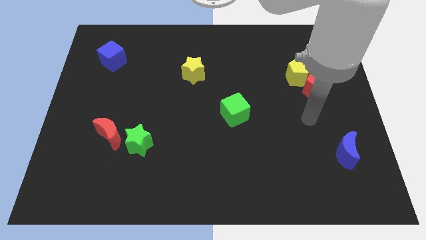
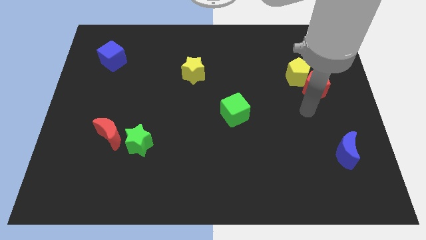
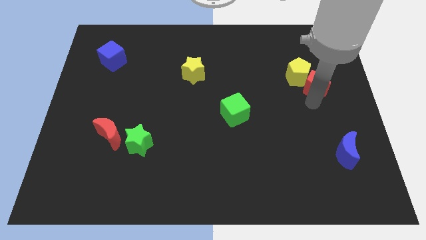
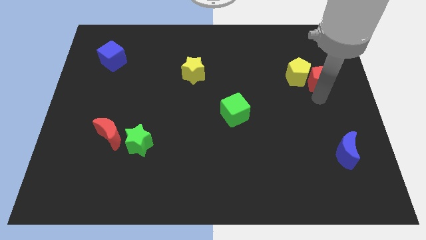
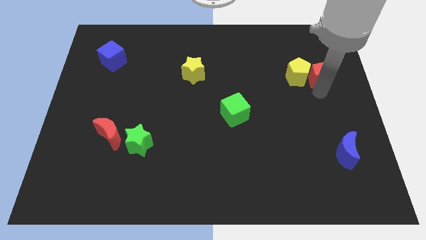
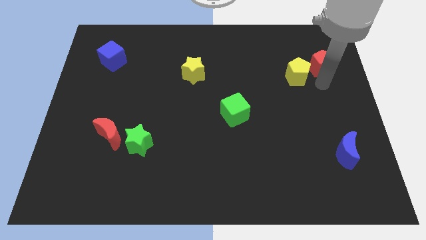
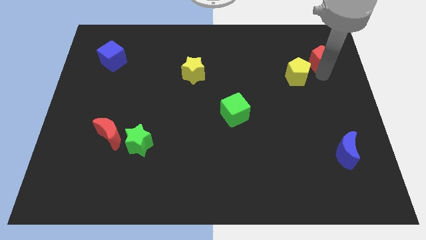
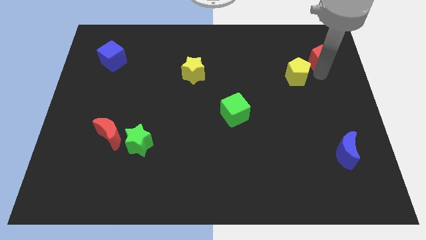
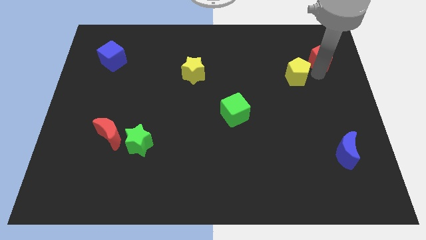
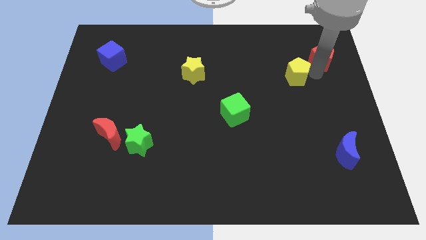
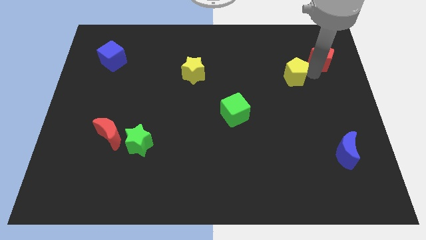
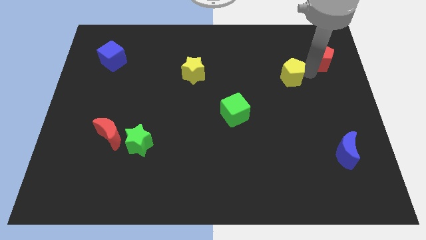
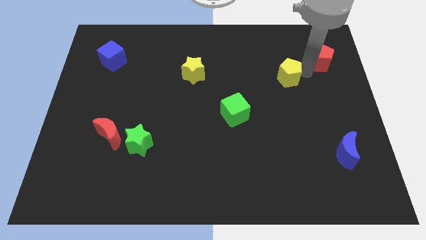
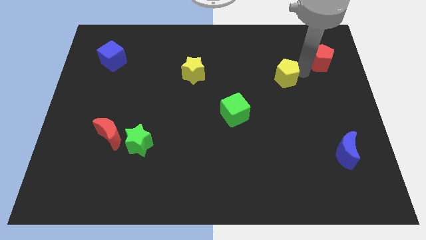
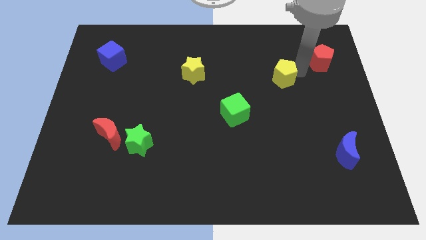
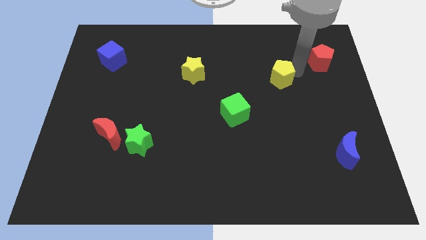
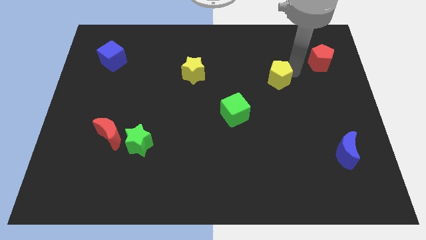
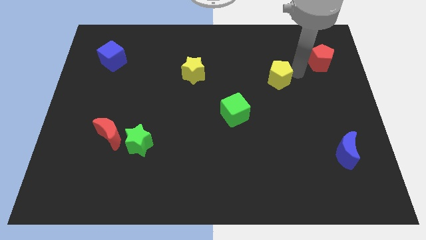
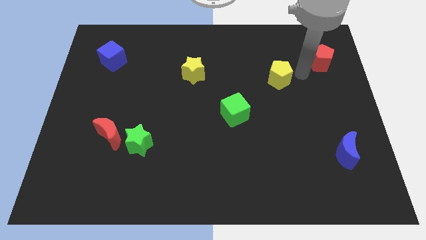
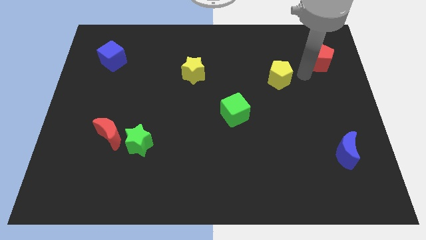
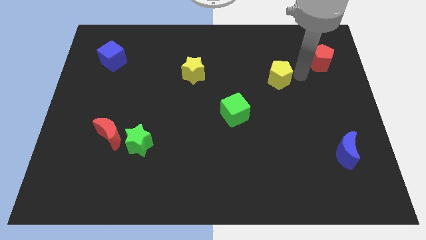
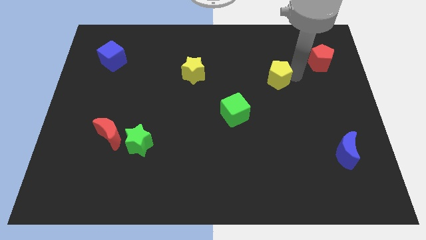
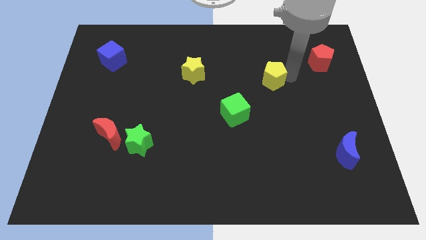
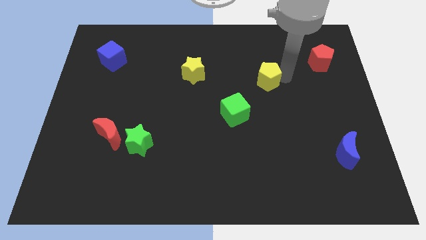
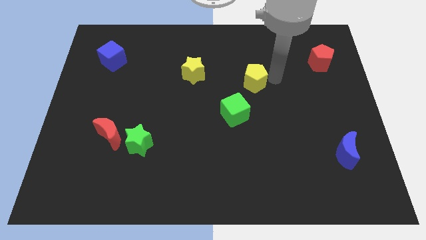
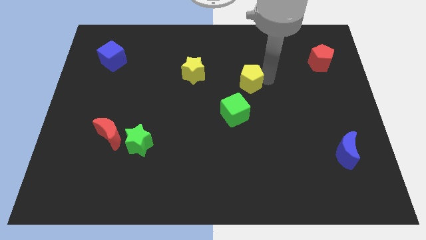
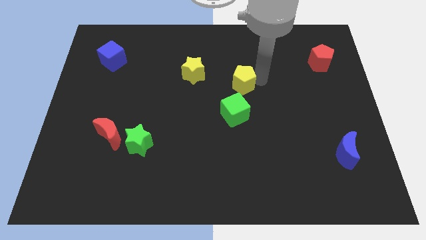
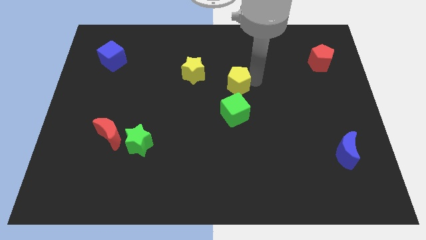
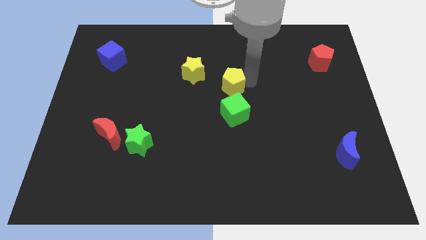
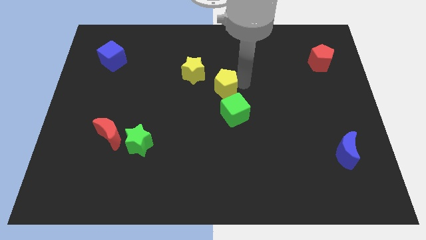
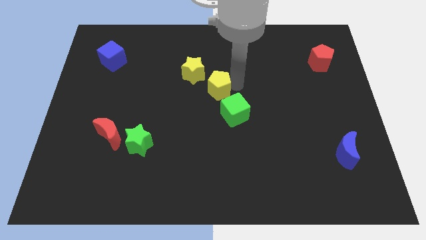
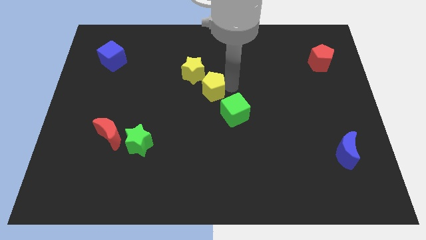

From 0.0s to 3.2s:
push the yellow pentagon left

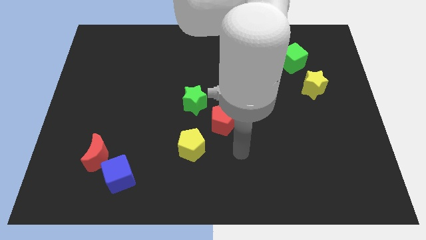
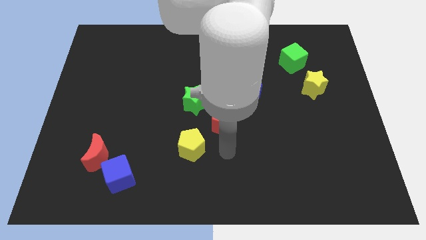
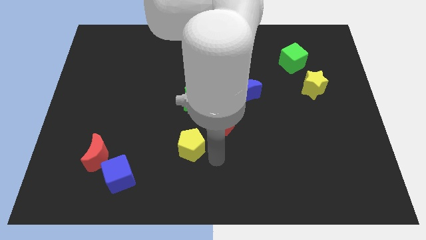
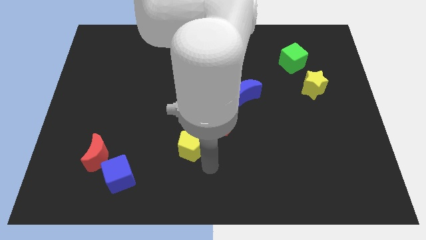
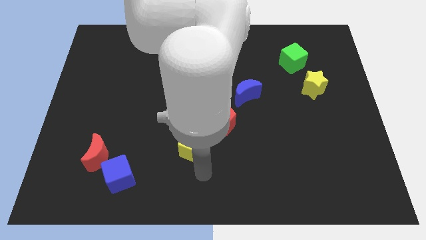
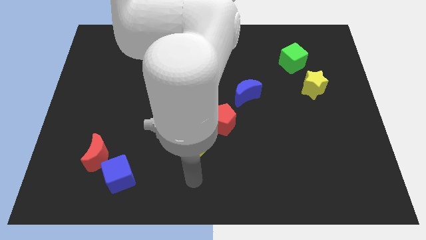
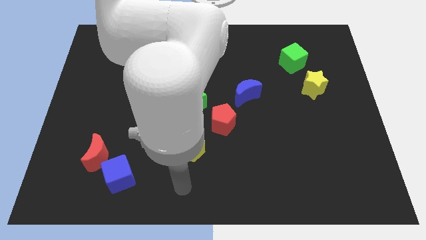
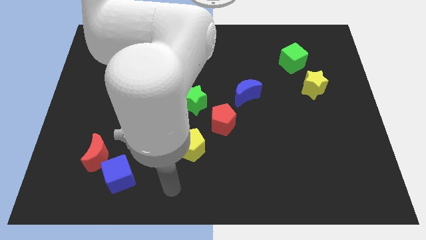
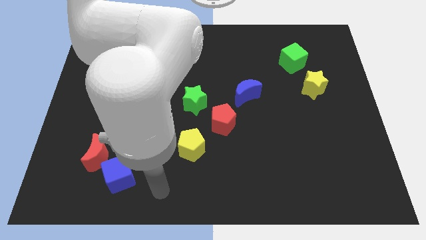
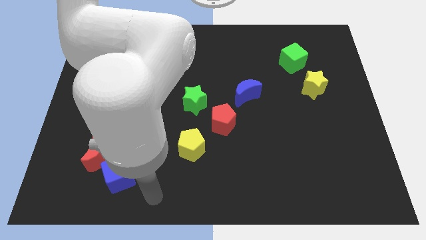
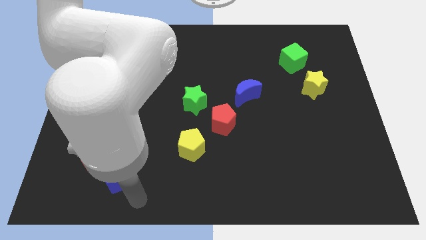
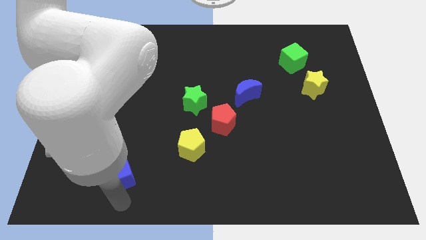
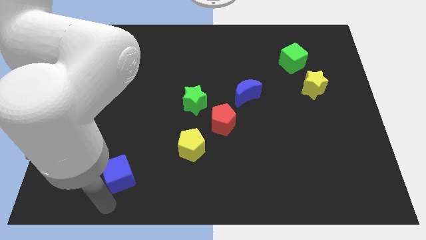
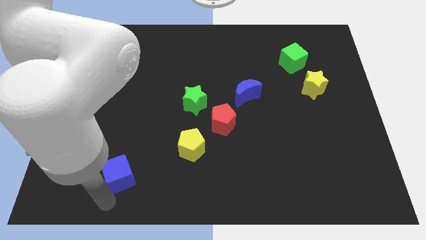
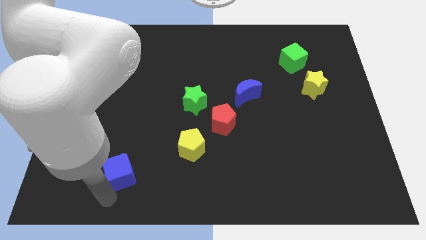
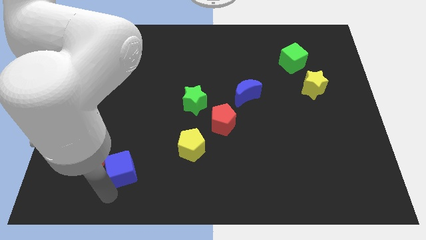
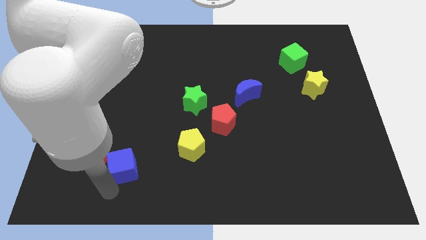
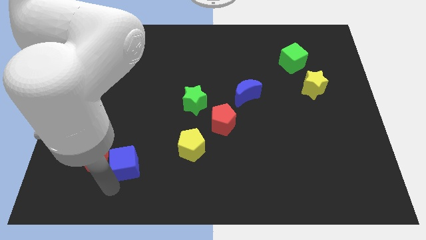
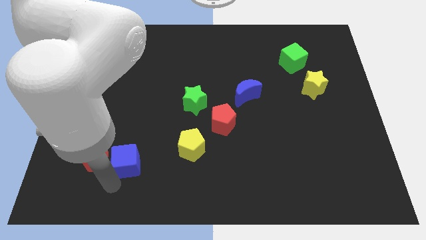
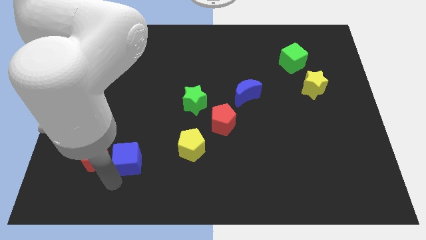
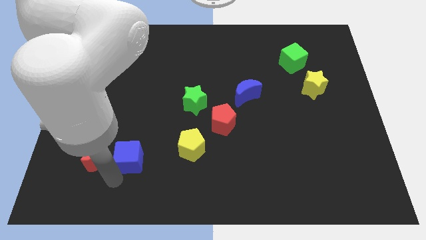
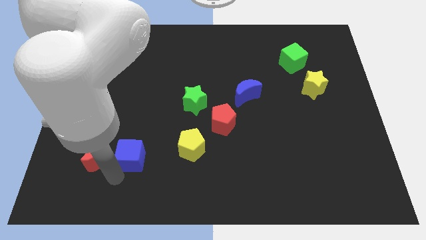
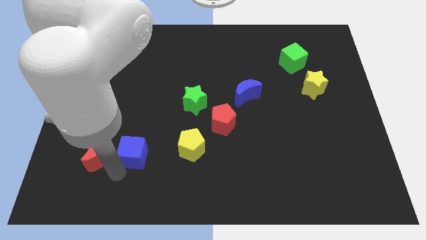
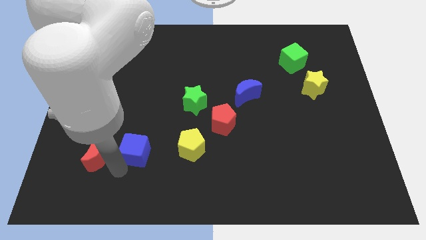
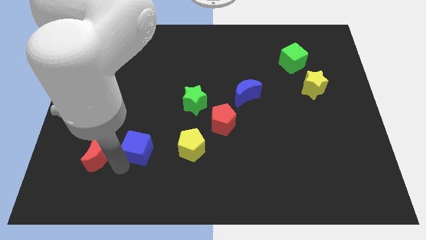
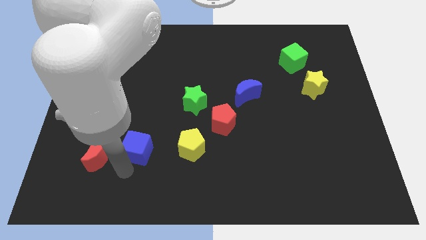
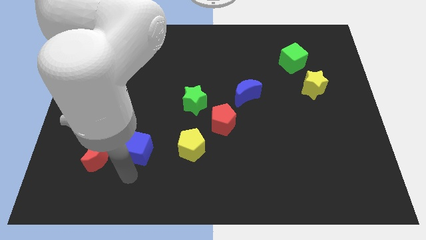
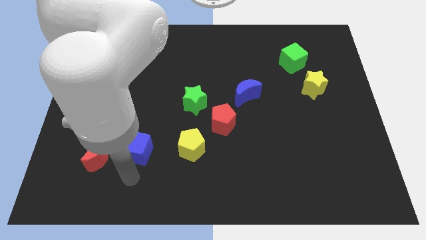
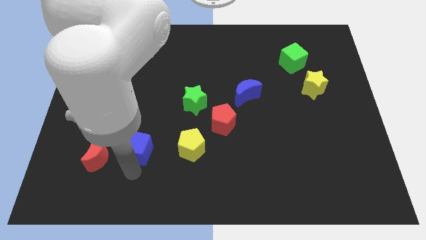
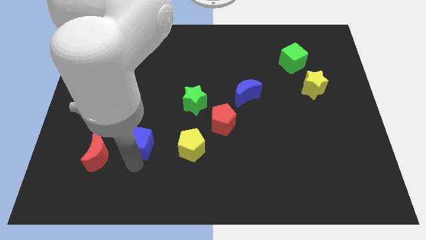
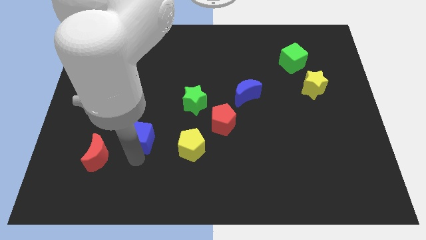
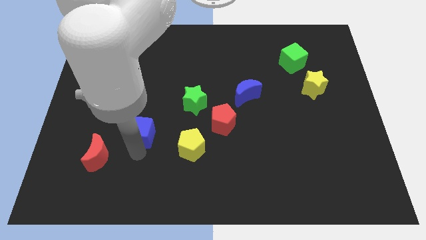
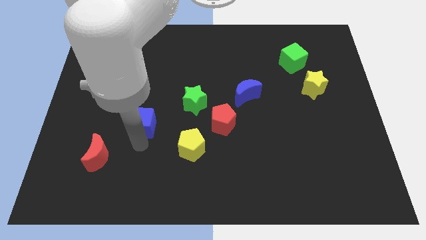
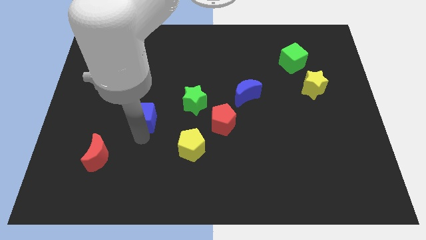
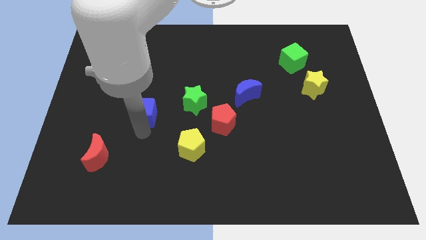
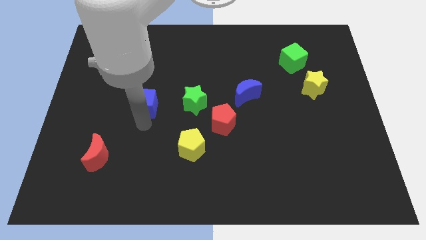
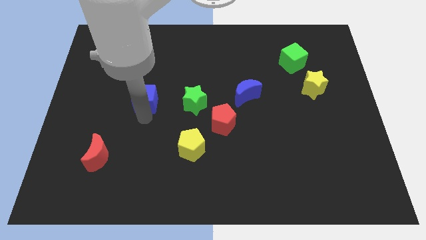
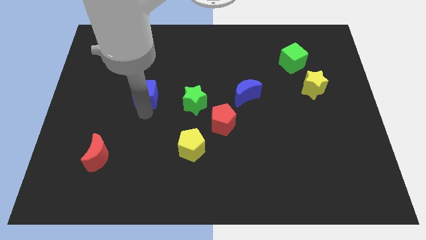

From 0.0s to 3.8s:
move the blue cube up

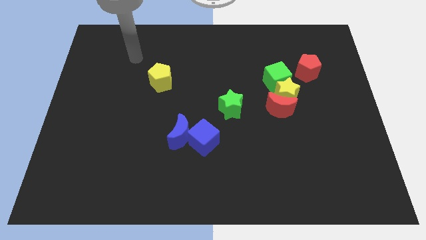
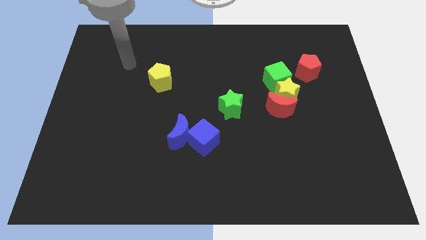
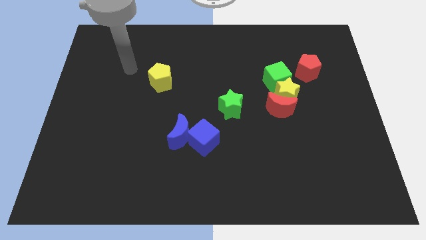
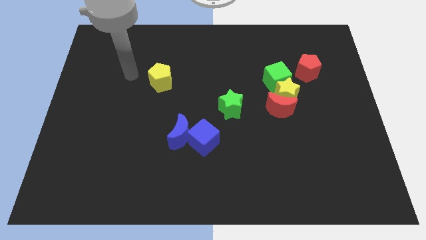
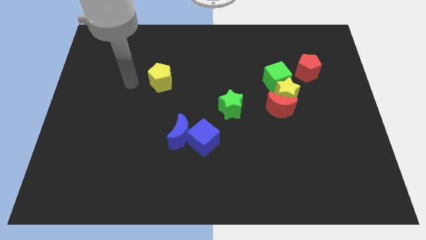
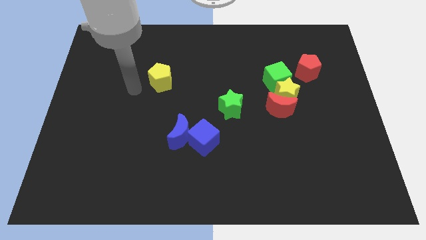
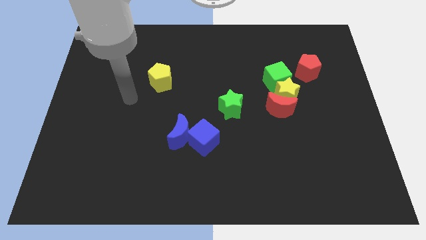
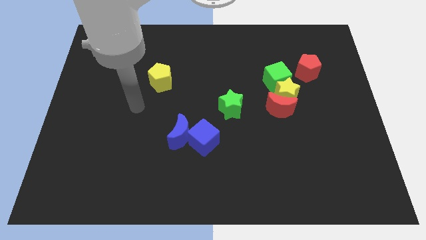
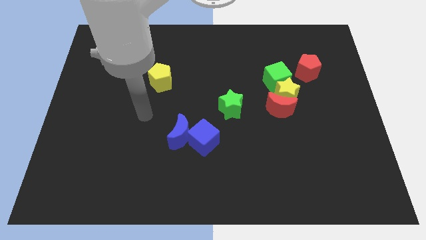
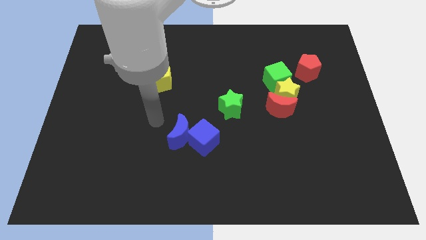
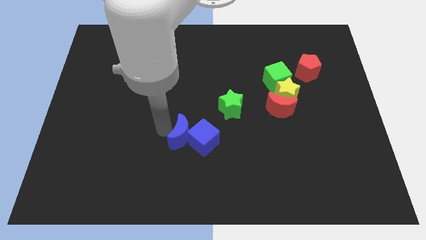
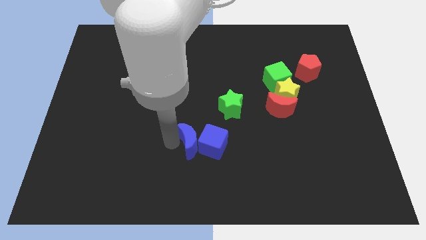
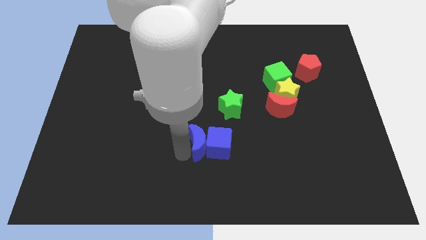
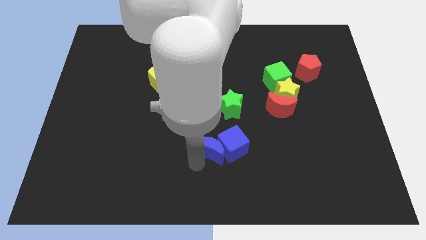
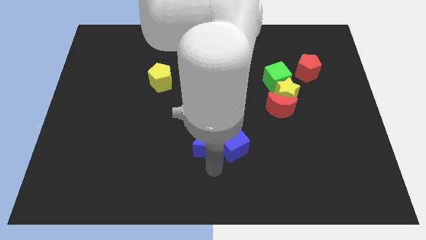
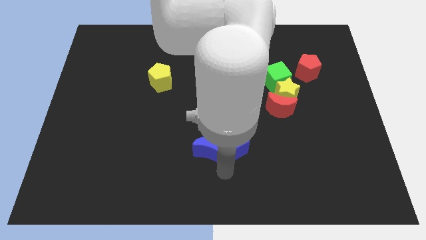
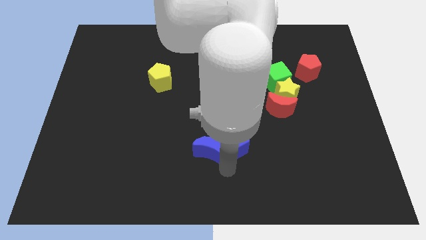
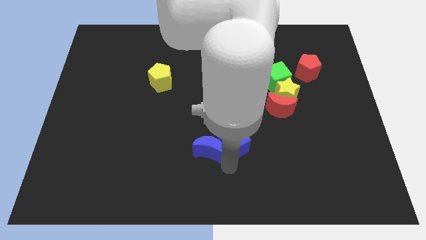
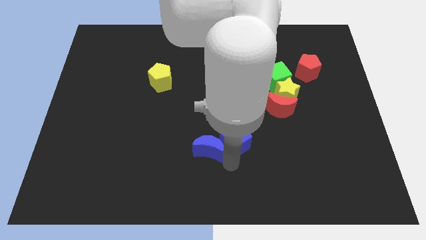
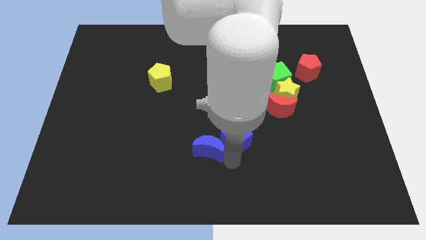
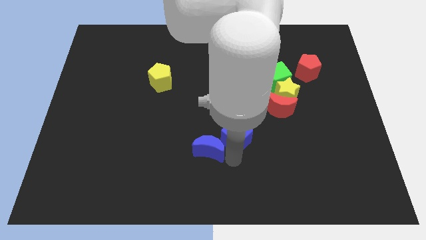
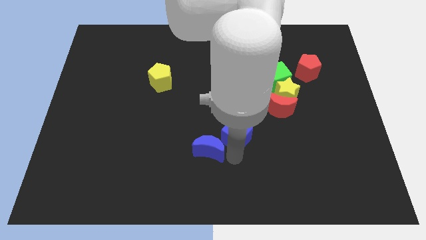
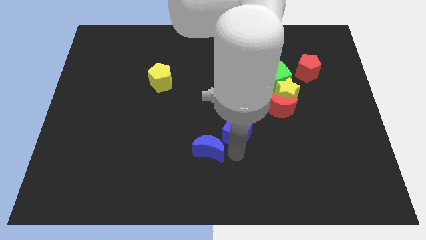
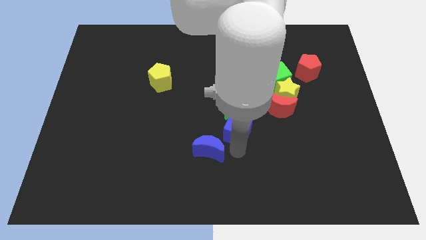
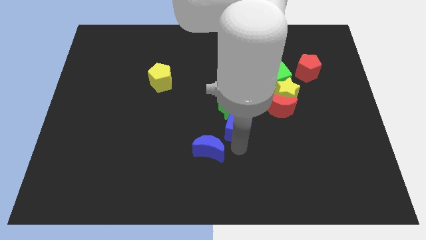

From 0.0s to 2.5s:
push the blue cube upwards and right slightly
